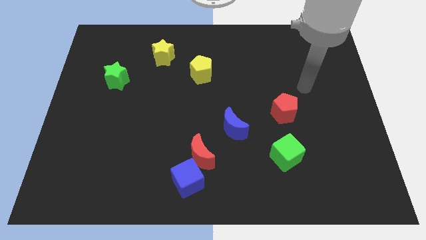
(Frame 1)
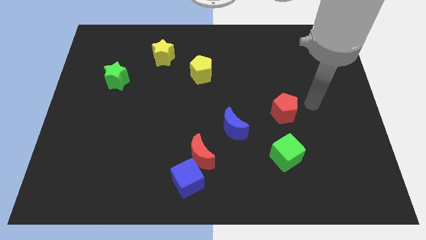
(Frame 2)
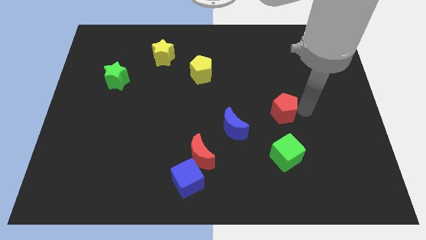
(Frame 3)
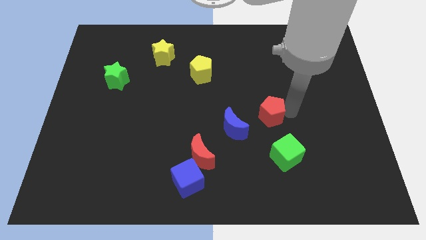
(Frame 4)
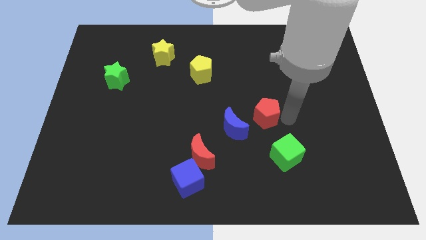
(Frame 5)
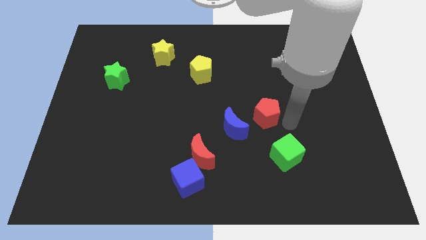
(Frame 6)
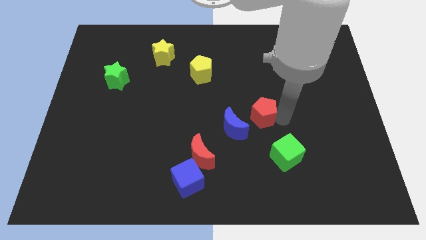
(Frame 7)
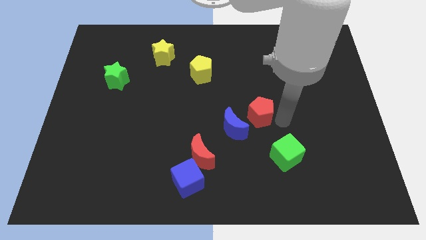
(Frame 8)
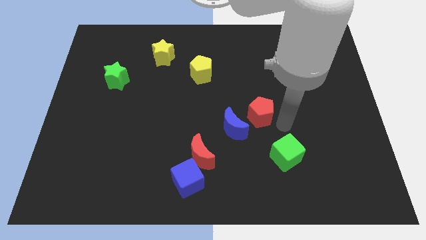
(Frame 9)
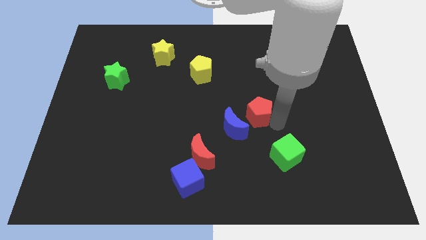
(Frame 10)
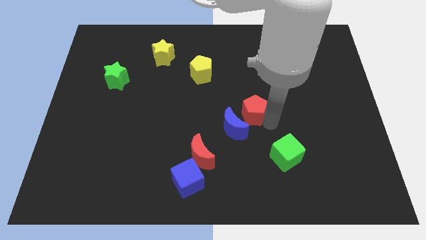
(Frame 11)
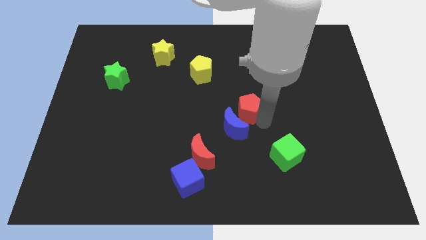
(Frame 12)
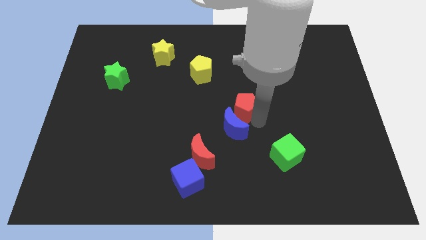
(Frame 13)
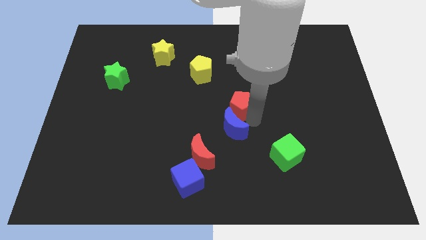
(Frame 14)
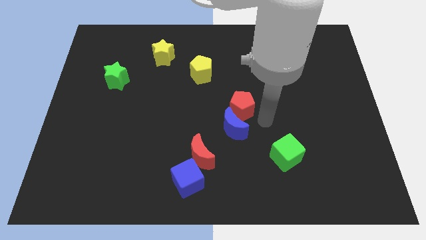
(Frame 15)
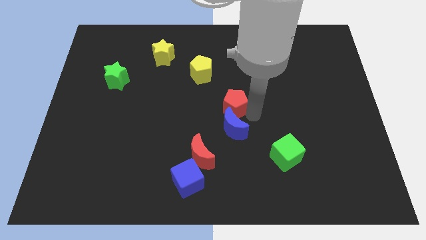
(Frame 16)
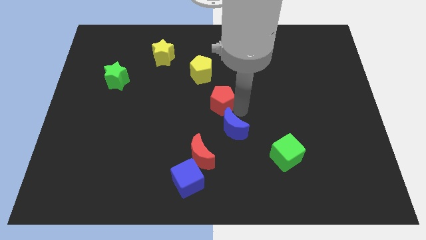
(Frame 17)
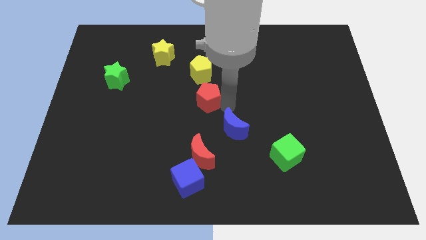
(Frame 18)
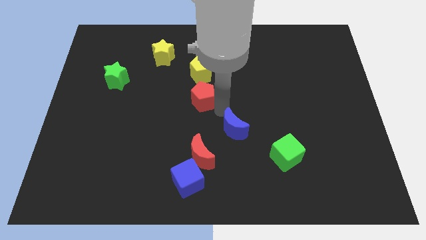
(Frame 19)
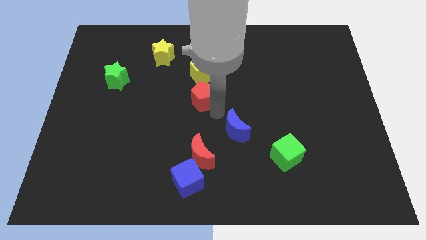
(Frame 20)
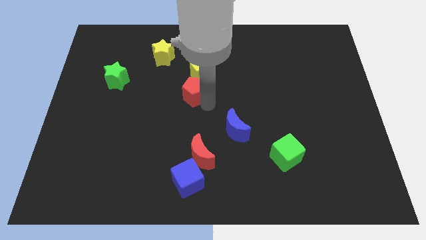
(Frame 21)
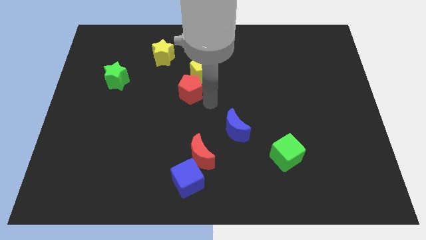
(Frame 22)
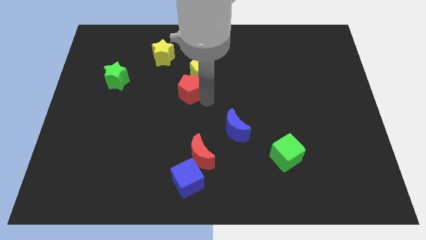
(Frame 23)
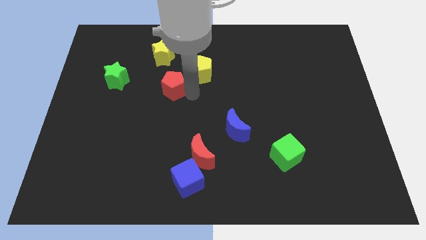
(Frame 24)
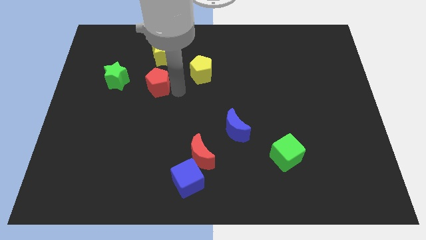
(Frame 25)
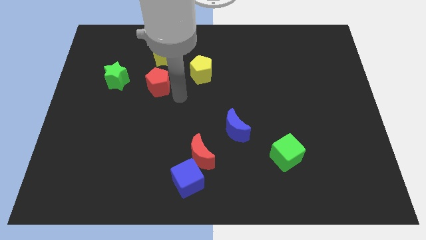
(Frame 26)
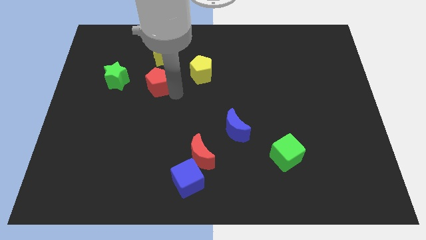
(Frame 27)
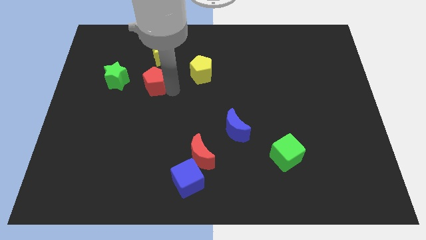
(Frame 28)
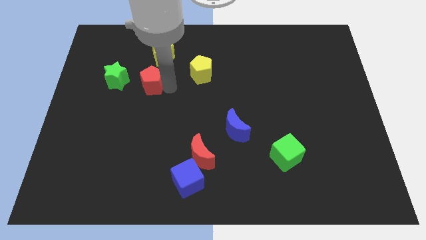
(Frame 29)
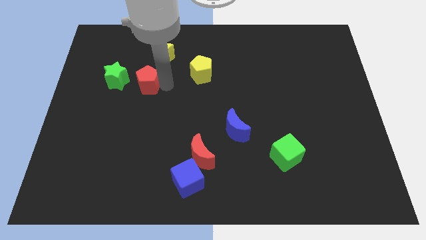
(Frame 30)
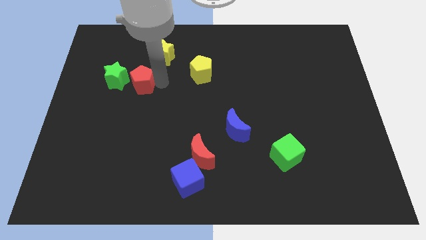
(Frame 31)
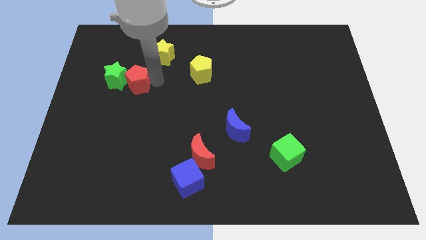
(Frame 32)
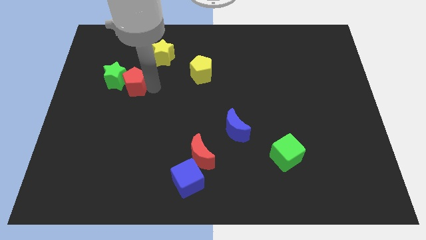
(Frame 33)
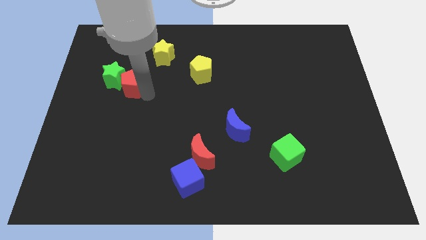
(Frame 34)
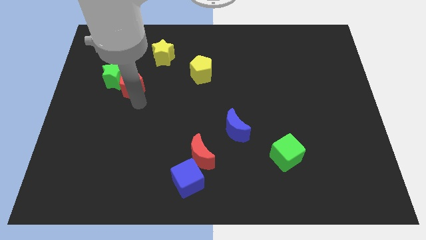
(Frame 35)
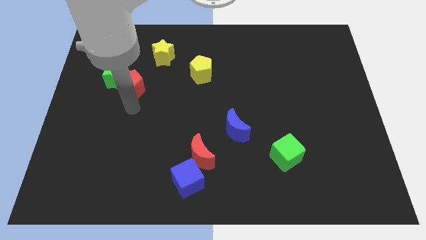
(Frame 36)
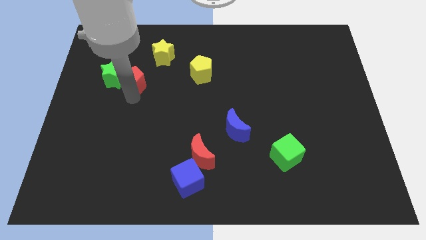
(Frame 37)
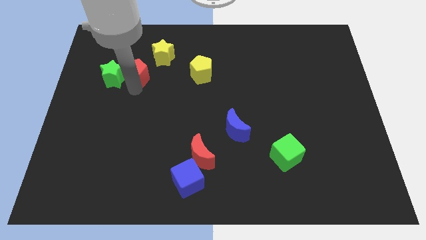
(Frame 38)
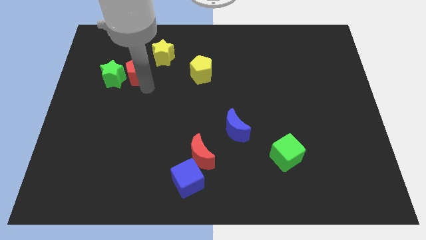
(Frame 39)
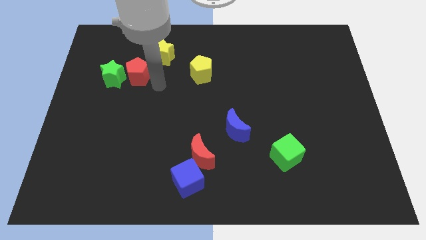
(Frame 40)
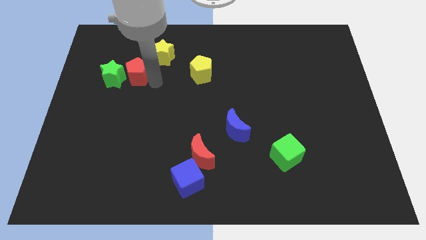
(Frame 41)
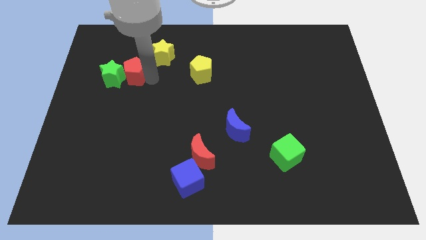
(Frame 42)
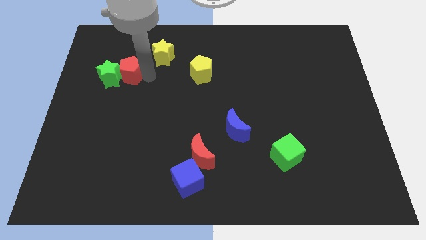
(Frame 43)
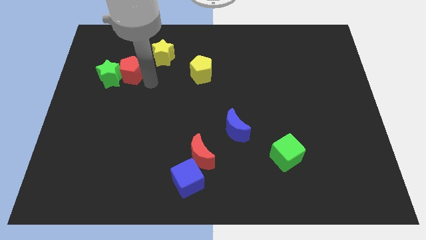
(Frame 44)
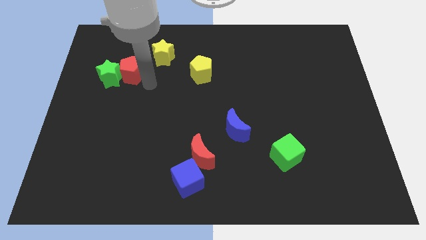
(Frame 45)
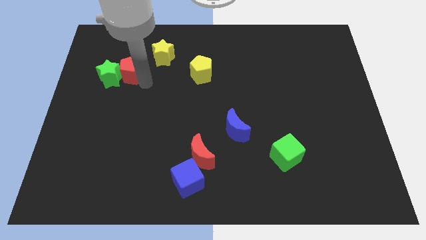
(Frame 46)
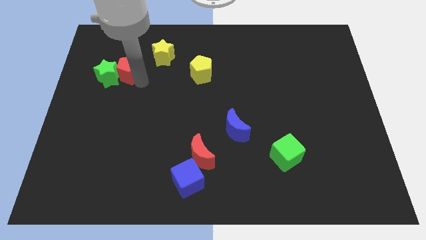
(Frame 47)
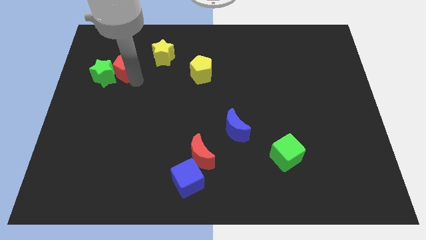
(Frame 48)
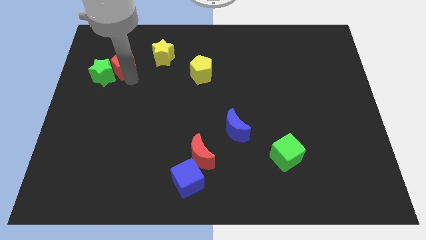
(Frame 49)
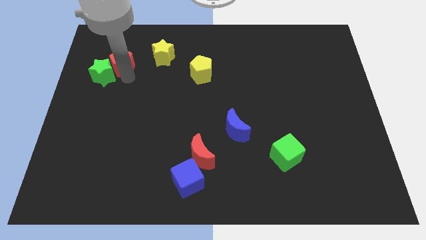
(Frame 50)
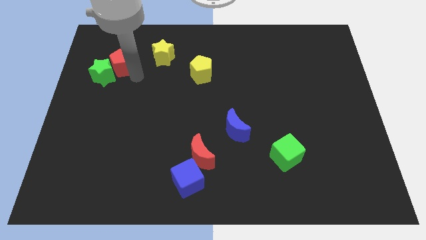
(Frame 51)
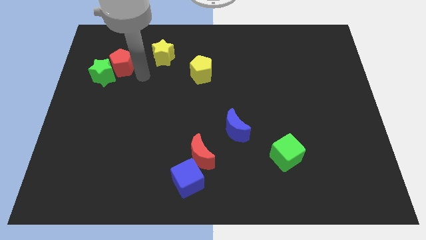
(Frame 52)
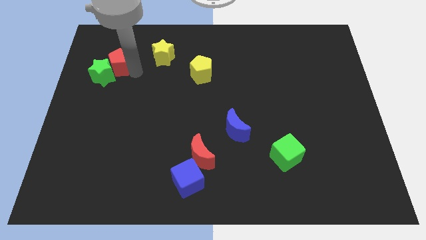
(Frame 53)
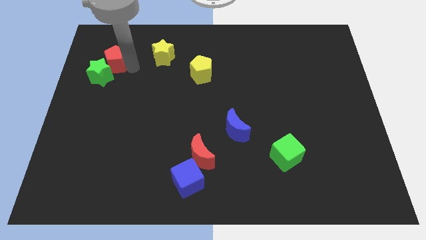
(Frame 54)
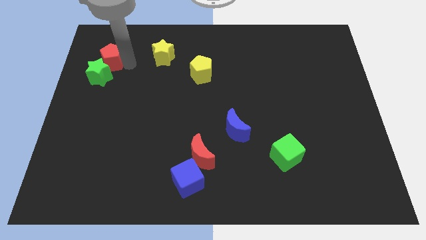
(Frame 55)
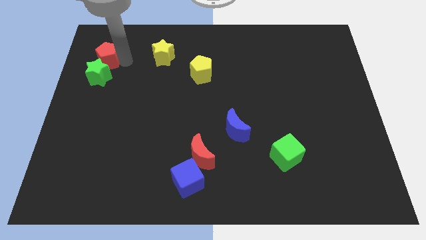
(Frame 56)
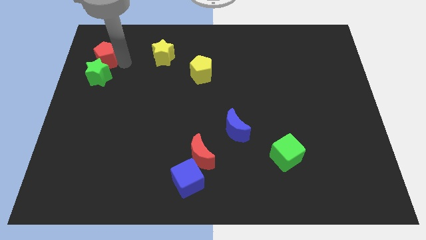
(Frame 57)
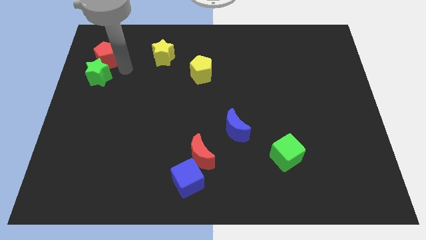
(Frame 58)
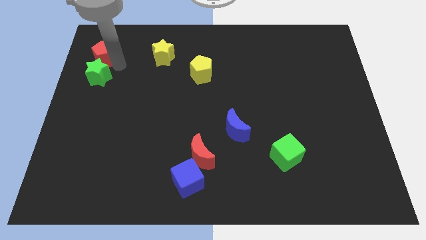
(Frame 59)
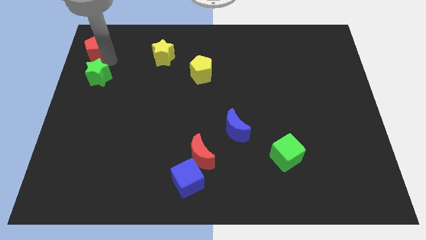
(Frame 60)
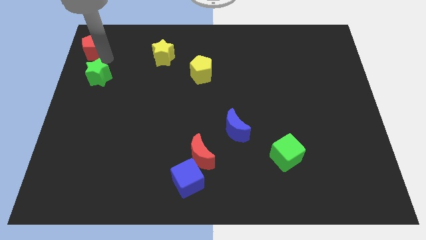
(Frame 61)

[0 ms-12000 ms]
push the red pentagon to the top left corner

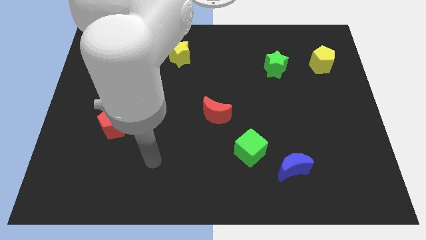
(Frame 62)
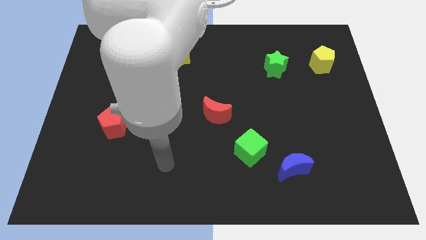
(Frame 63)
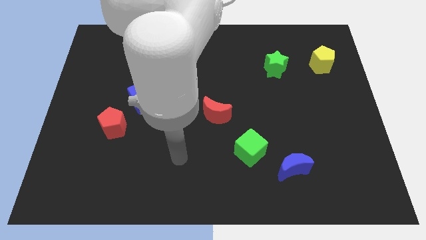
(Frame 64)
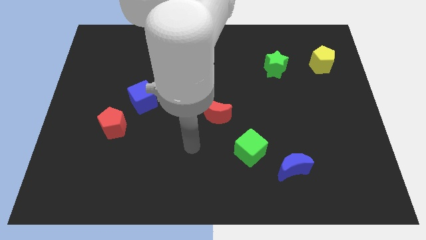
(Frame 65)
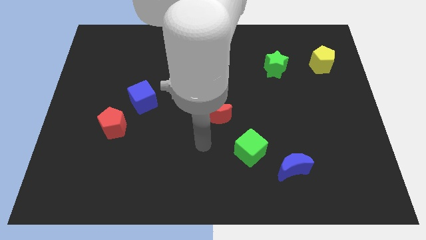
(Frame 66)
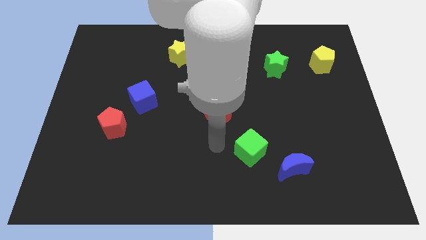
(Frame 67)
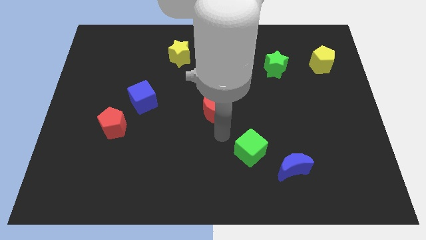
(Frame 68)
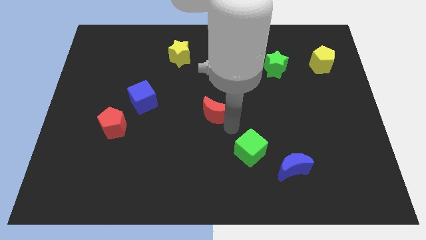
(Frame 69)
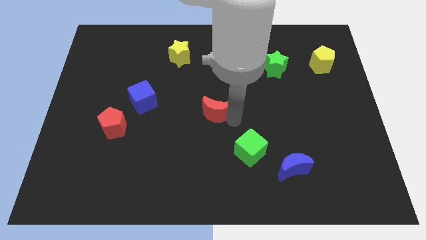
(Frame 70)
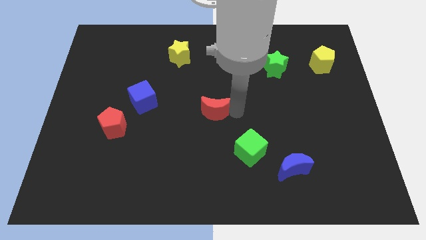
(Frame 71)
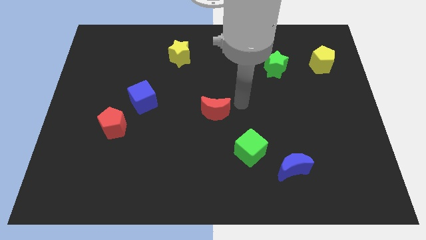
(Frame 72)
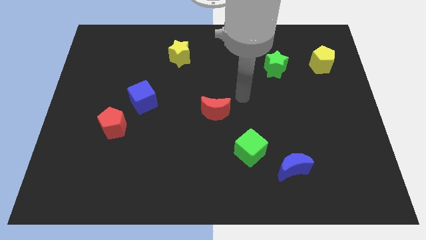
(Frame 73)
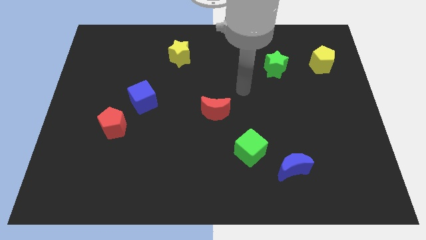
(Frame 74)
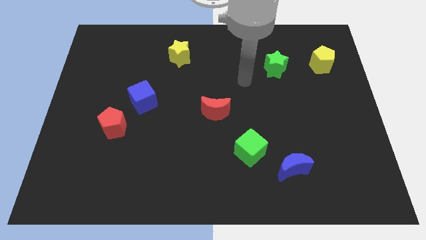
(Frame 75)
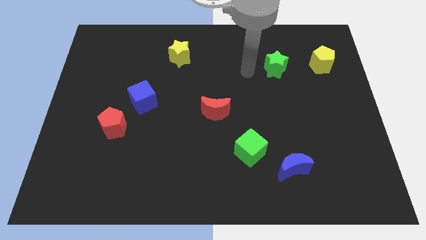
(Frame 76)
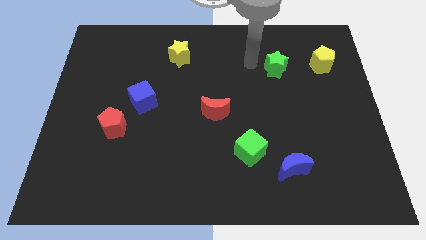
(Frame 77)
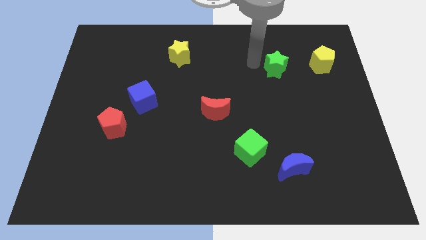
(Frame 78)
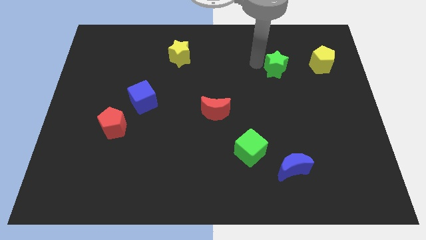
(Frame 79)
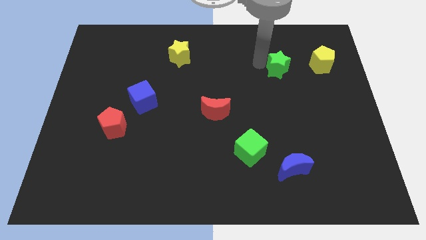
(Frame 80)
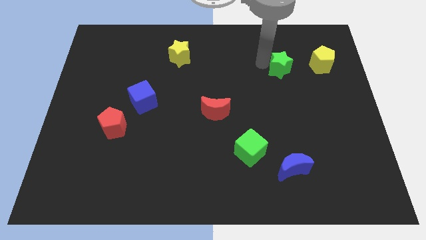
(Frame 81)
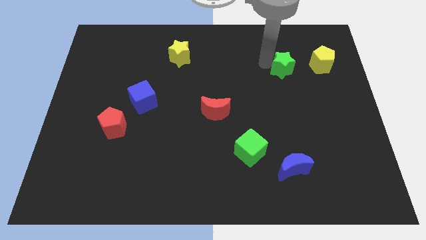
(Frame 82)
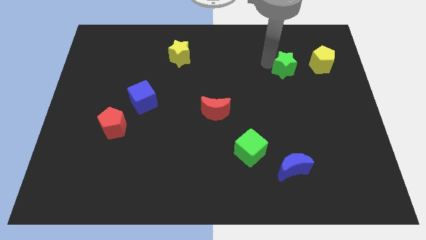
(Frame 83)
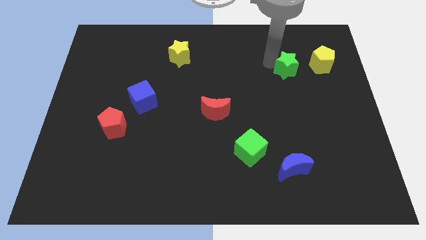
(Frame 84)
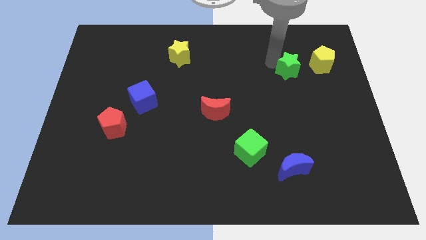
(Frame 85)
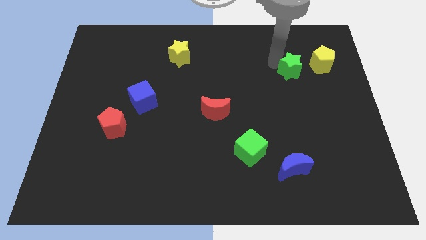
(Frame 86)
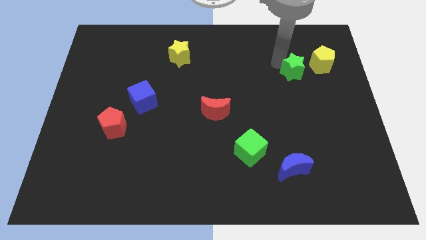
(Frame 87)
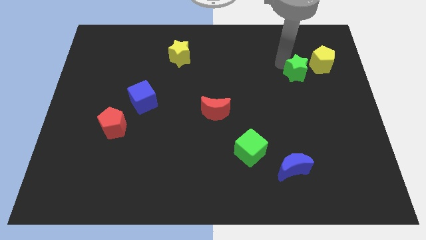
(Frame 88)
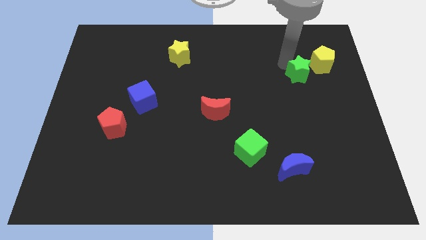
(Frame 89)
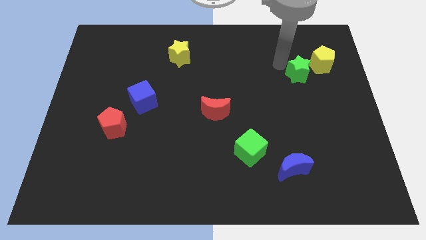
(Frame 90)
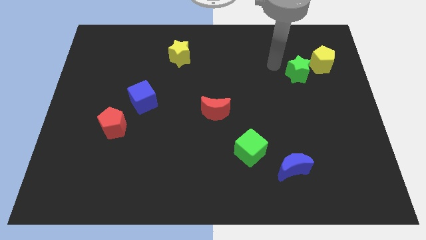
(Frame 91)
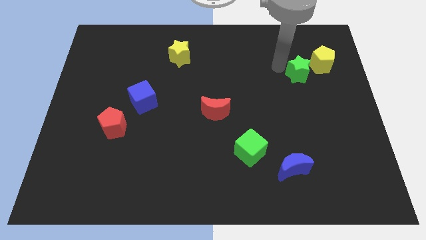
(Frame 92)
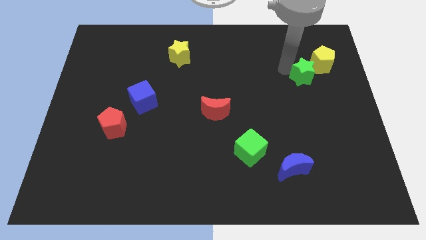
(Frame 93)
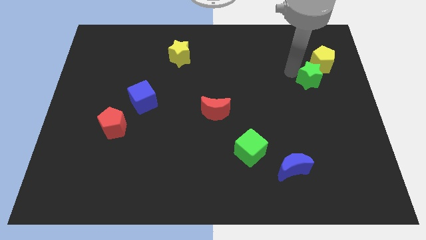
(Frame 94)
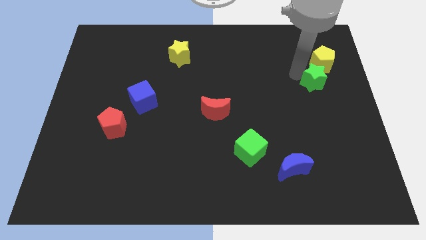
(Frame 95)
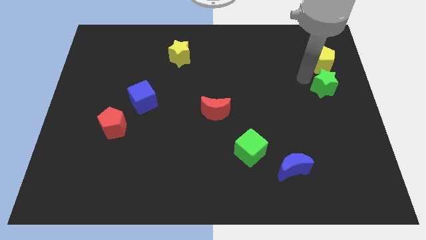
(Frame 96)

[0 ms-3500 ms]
move the green star to the right side of the board
